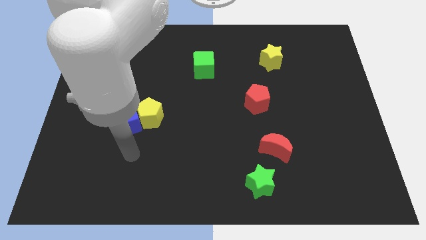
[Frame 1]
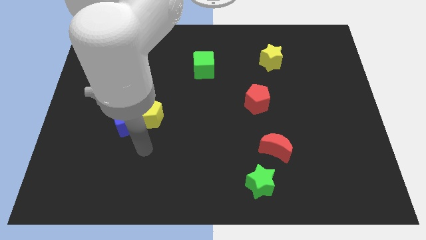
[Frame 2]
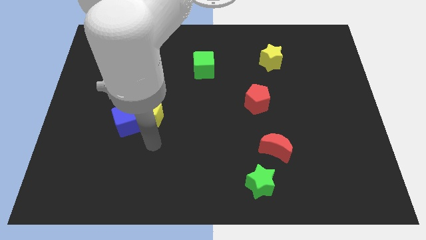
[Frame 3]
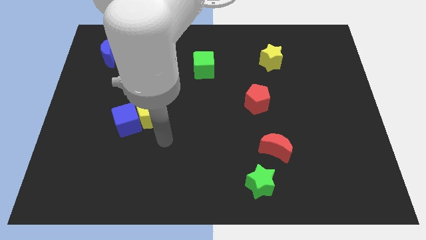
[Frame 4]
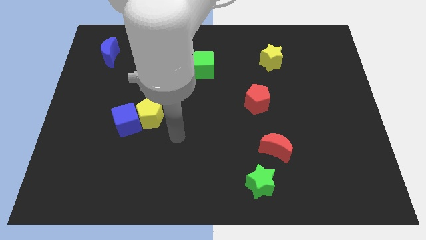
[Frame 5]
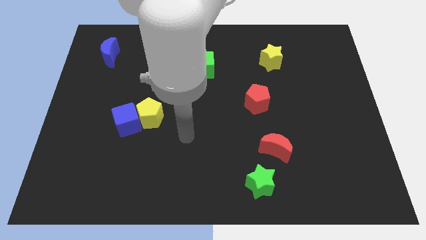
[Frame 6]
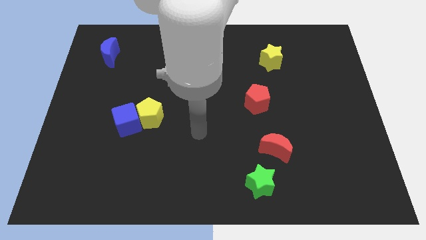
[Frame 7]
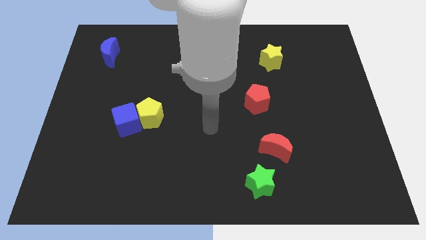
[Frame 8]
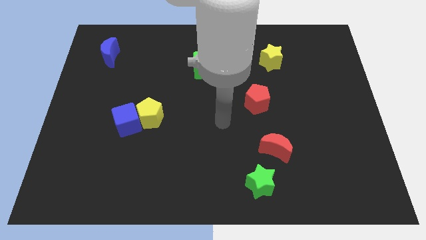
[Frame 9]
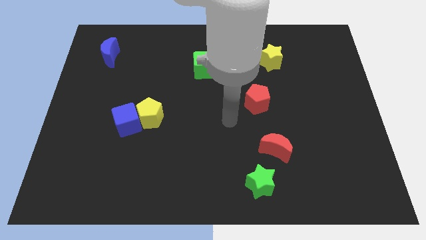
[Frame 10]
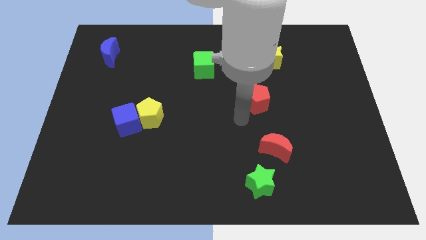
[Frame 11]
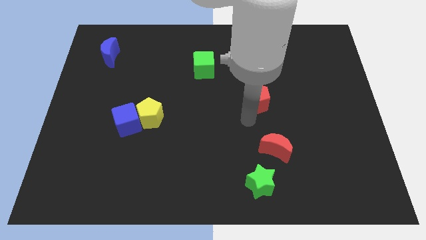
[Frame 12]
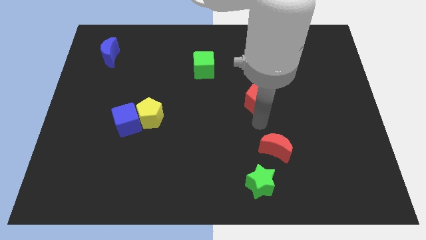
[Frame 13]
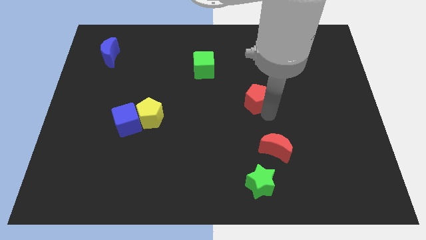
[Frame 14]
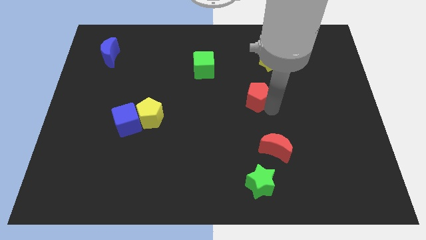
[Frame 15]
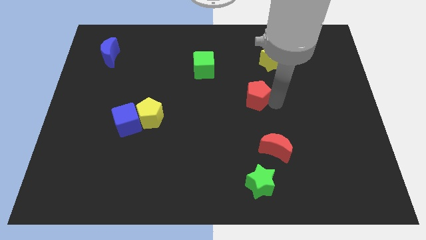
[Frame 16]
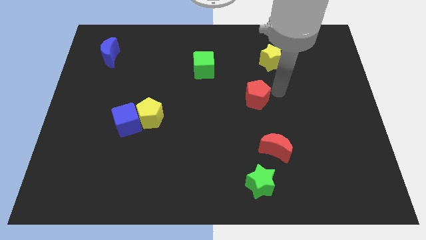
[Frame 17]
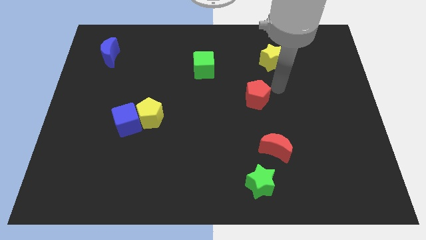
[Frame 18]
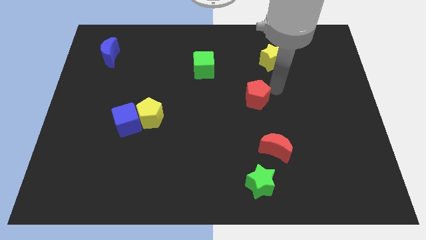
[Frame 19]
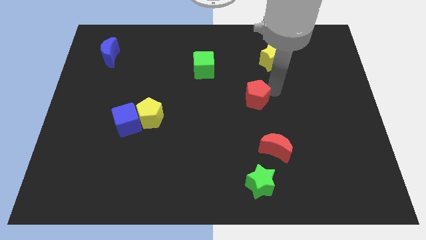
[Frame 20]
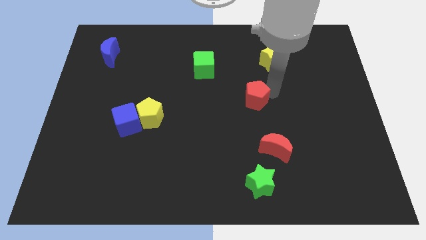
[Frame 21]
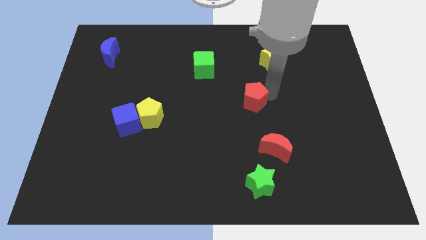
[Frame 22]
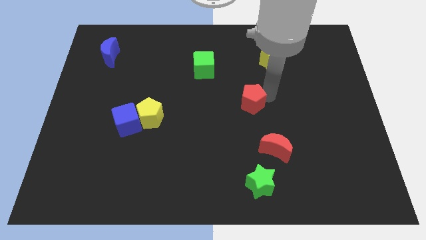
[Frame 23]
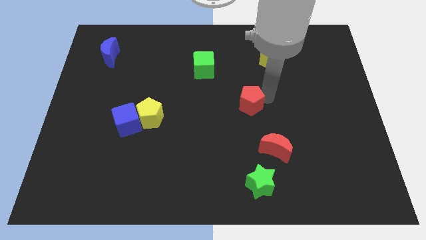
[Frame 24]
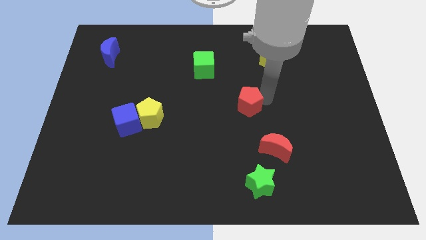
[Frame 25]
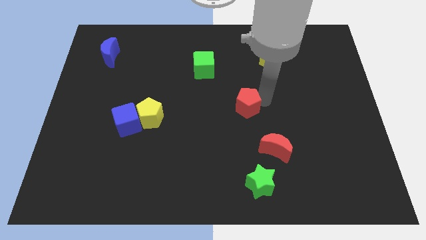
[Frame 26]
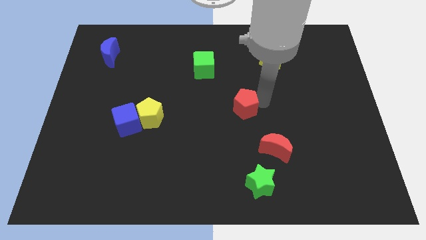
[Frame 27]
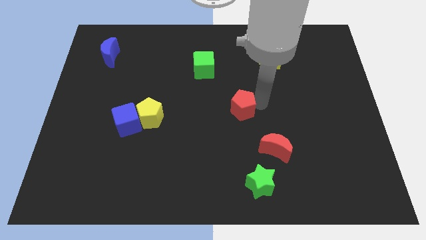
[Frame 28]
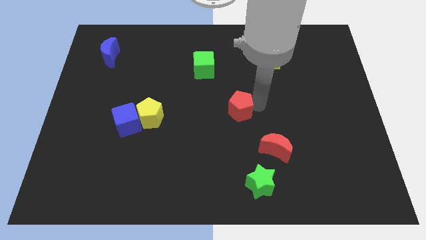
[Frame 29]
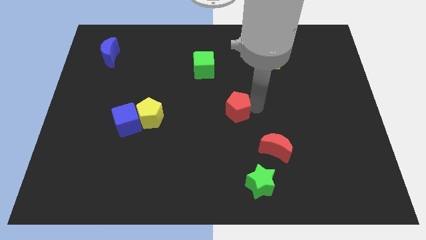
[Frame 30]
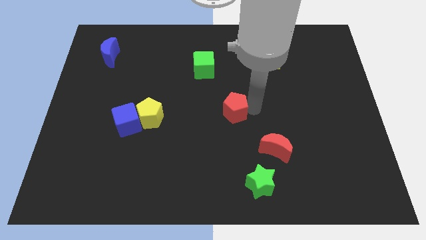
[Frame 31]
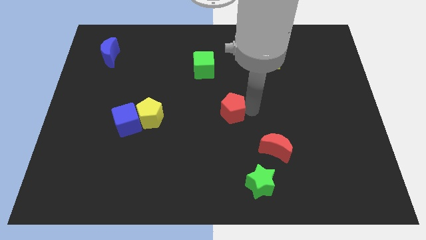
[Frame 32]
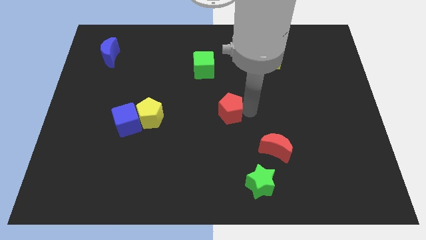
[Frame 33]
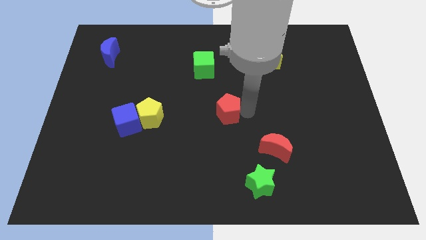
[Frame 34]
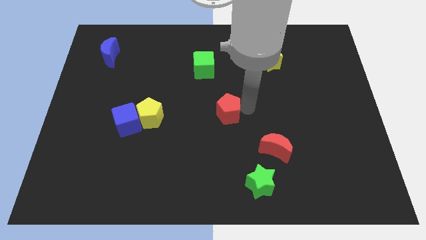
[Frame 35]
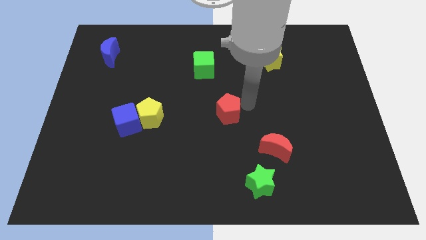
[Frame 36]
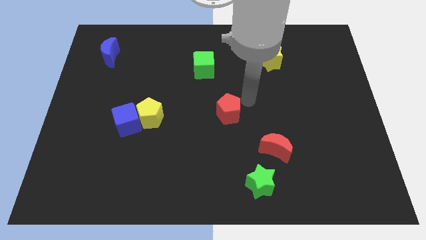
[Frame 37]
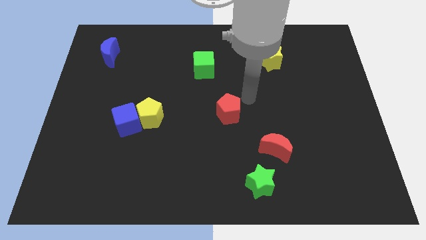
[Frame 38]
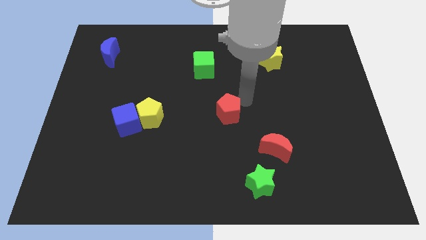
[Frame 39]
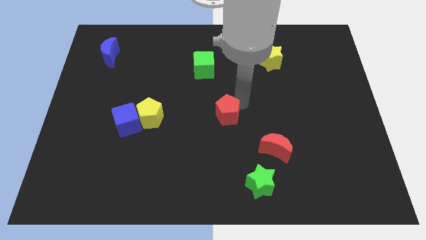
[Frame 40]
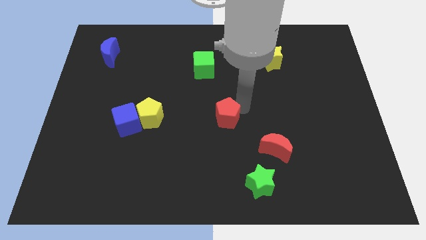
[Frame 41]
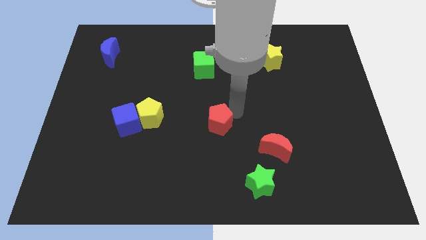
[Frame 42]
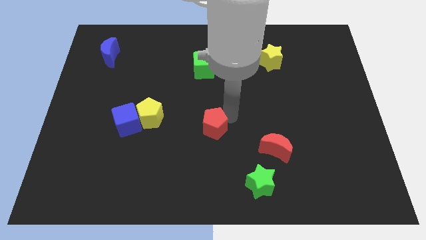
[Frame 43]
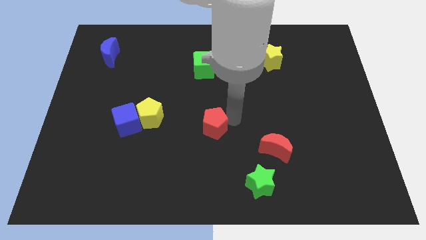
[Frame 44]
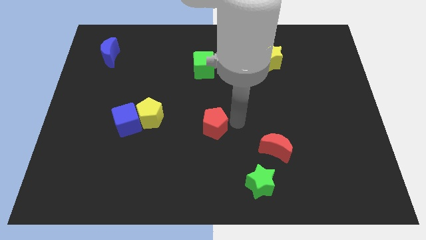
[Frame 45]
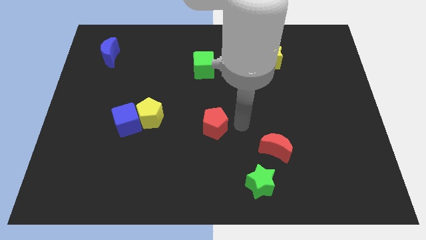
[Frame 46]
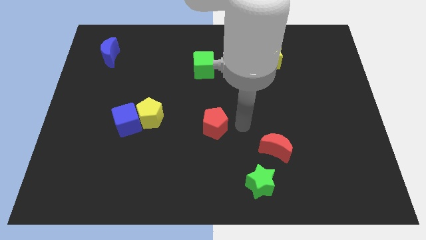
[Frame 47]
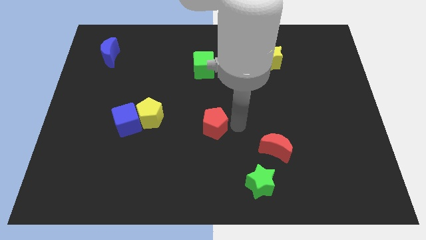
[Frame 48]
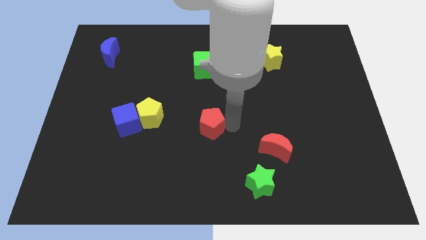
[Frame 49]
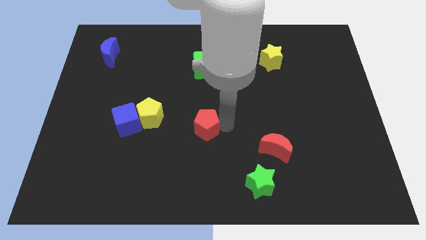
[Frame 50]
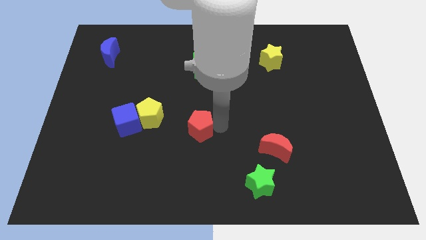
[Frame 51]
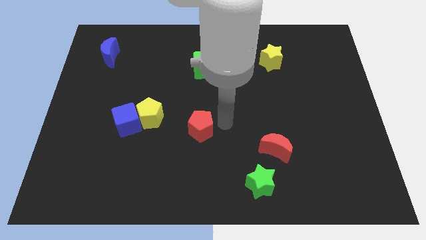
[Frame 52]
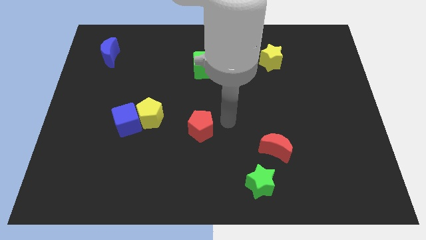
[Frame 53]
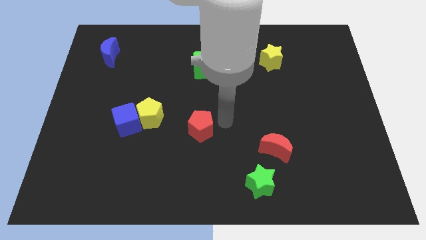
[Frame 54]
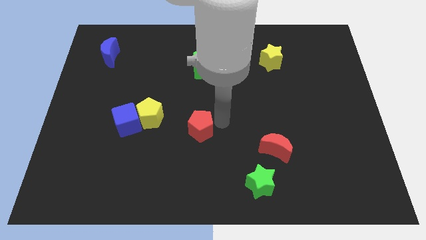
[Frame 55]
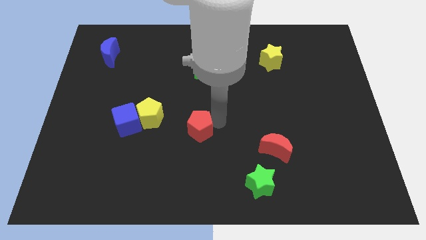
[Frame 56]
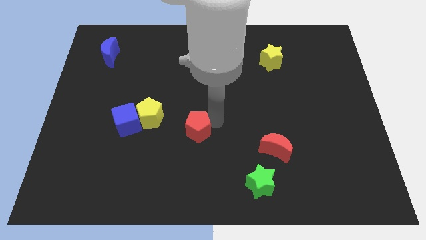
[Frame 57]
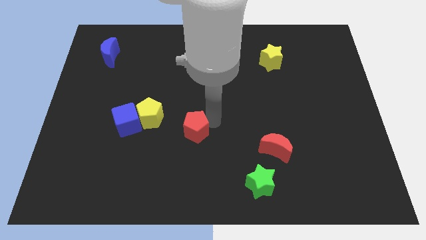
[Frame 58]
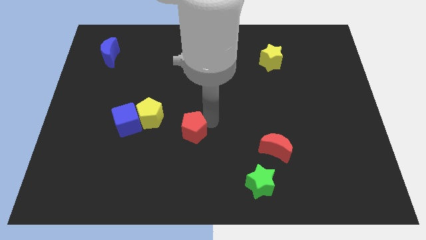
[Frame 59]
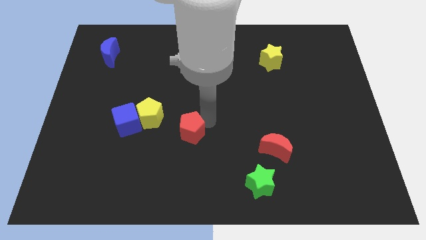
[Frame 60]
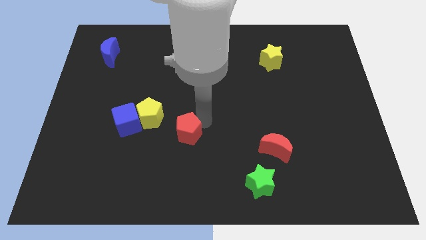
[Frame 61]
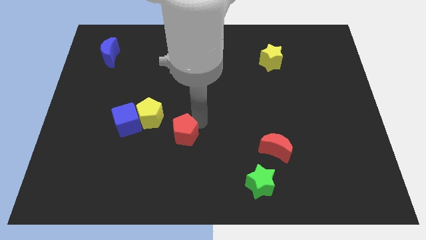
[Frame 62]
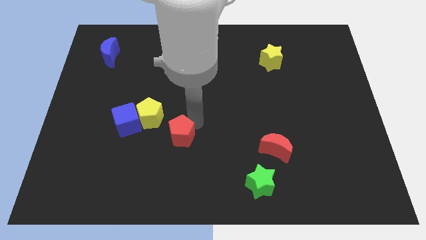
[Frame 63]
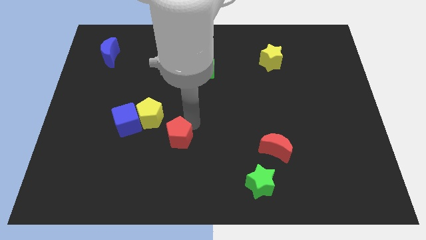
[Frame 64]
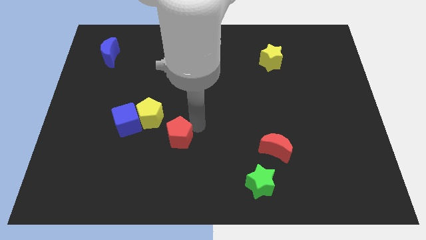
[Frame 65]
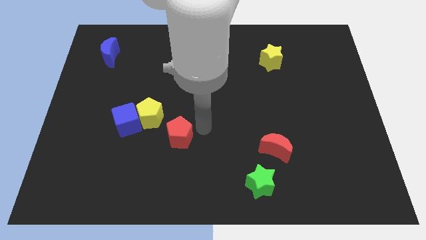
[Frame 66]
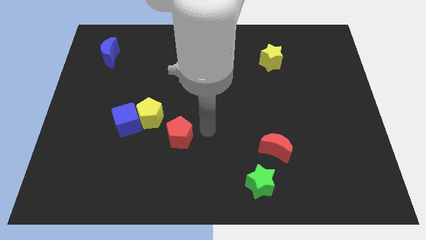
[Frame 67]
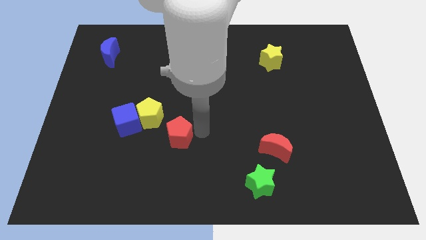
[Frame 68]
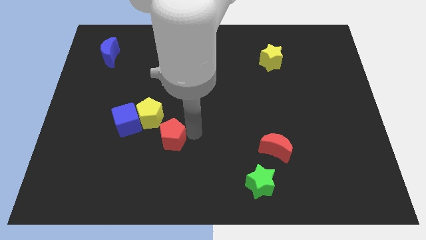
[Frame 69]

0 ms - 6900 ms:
move the red pentagon diagonally down and to the right of the blue cube
